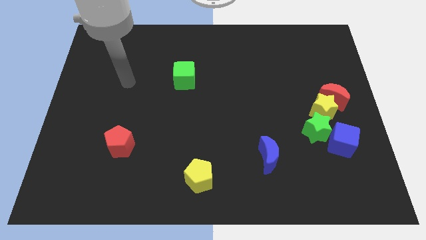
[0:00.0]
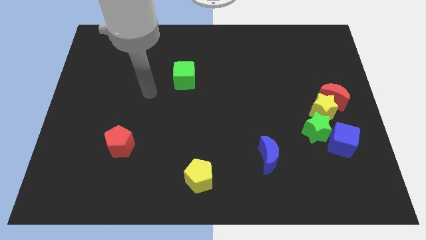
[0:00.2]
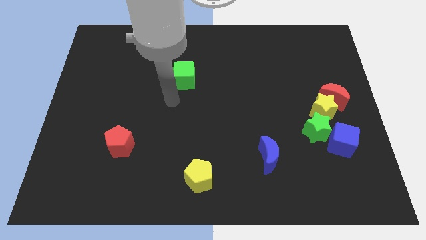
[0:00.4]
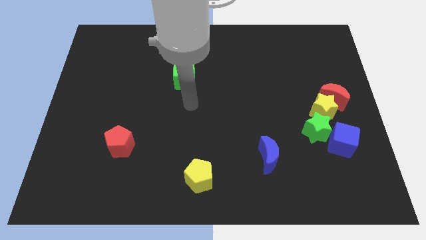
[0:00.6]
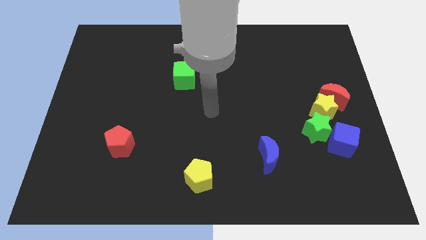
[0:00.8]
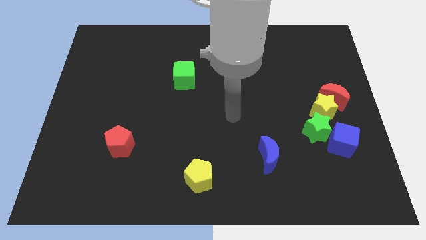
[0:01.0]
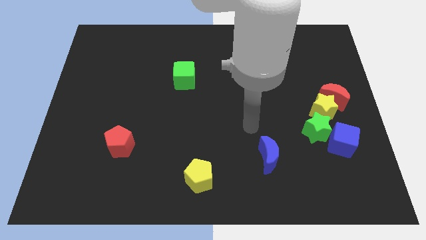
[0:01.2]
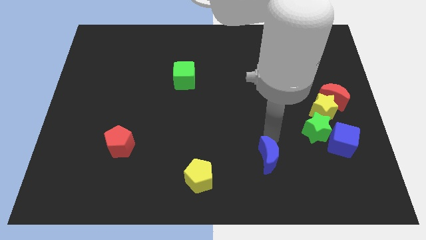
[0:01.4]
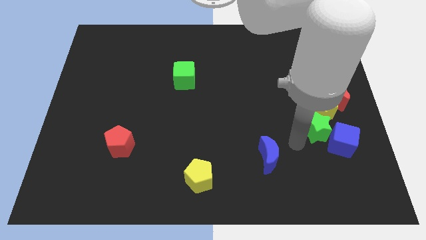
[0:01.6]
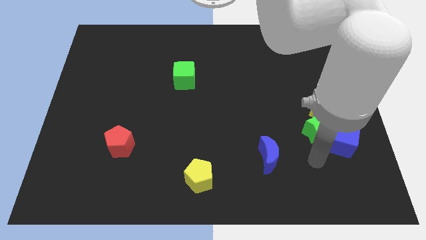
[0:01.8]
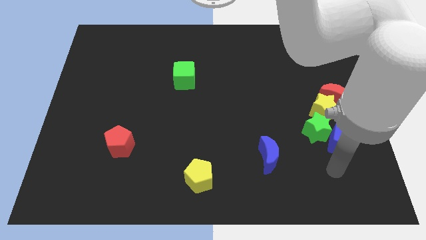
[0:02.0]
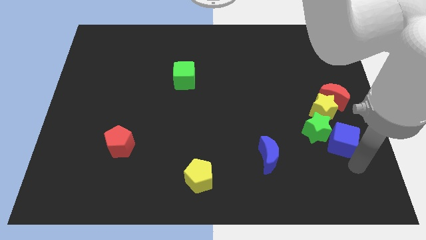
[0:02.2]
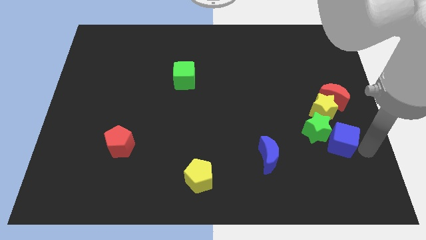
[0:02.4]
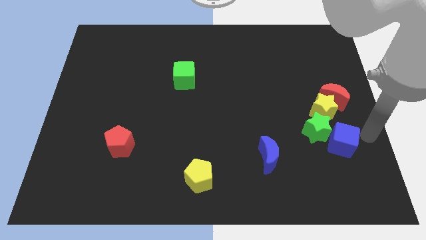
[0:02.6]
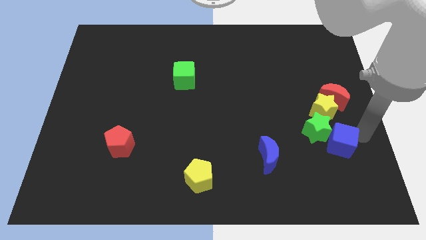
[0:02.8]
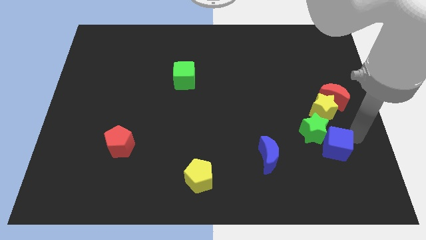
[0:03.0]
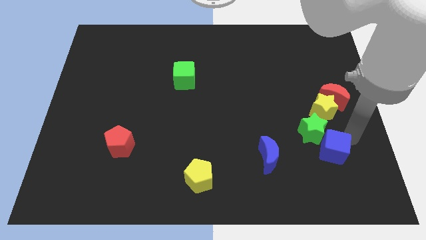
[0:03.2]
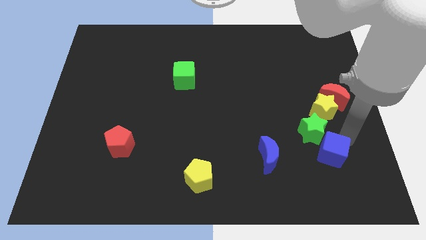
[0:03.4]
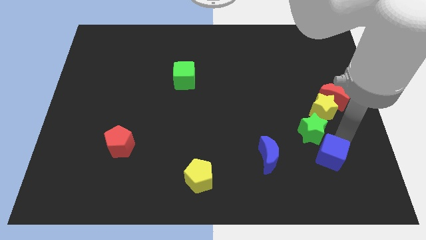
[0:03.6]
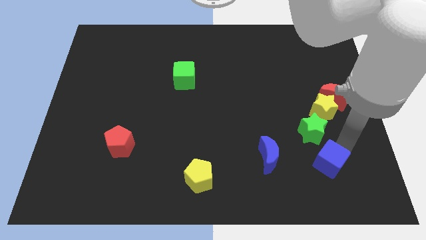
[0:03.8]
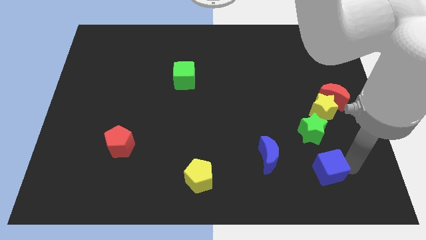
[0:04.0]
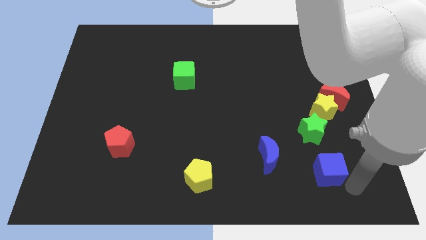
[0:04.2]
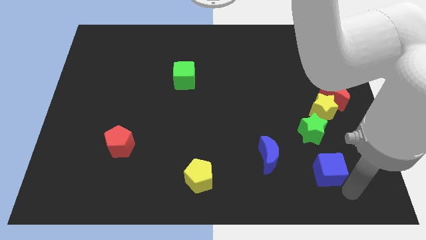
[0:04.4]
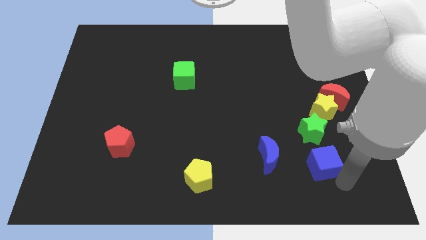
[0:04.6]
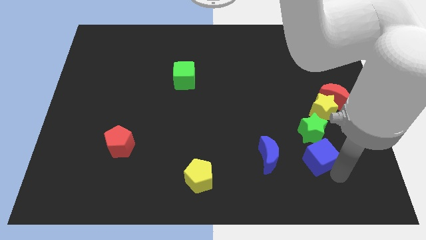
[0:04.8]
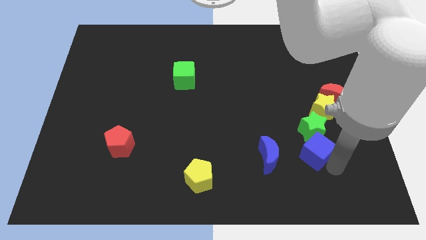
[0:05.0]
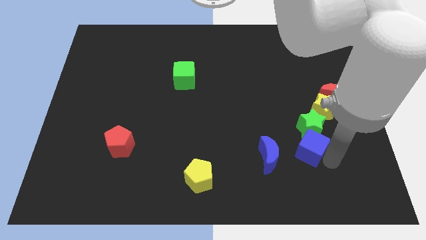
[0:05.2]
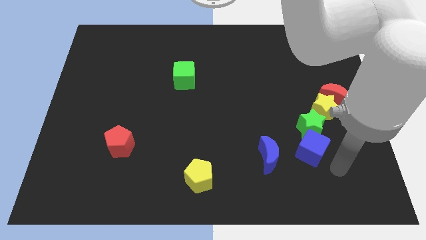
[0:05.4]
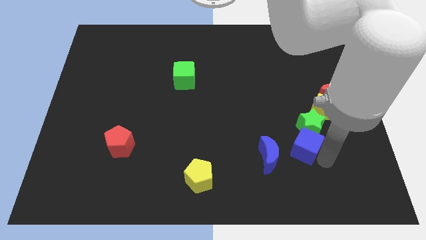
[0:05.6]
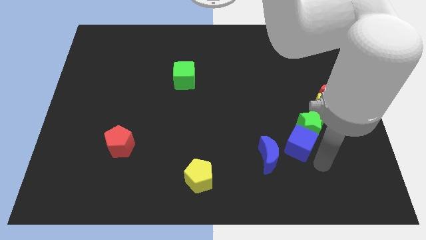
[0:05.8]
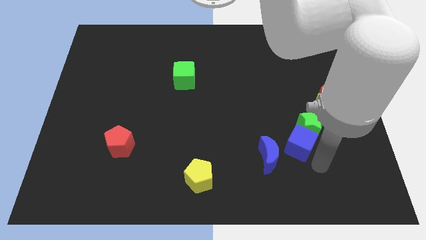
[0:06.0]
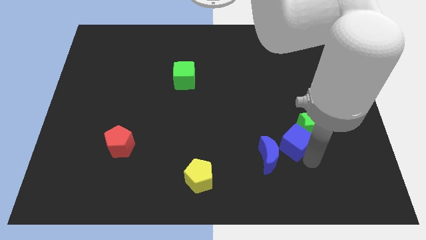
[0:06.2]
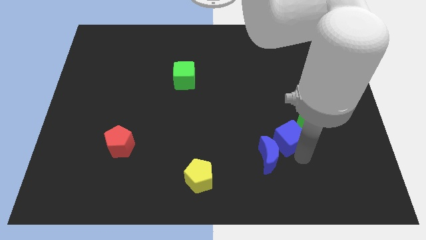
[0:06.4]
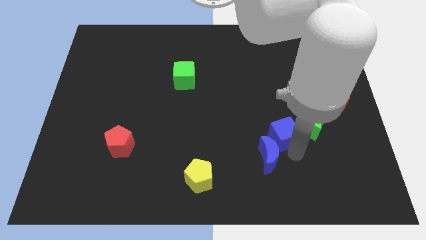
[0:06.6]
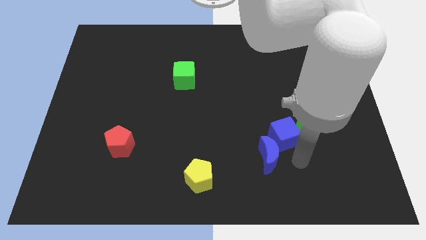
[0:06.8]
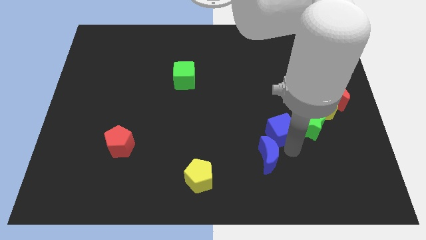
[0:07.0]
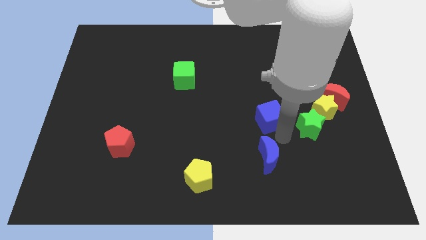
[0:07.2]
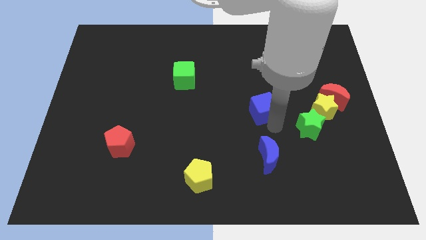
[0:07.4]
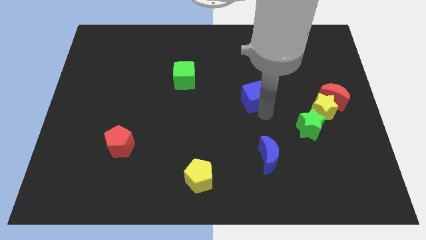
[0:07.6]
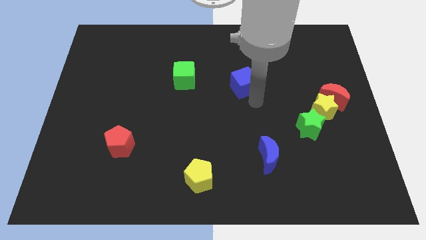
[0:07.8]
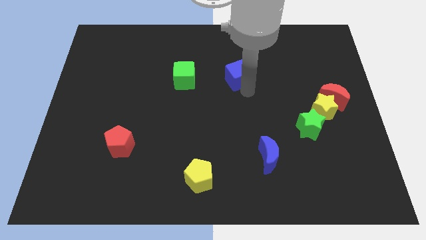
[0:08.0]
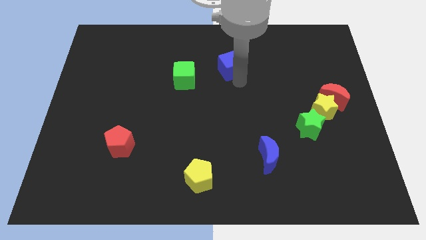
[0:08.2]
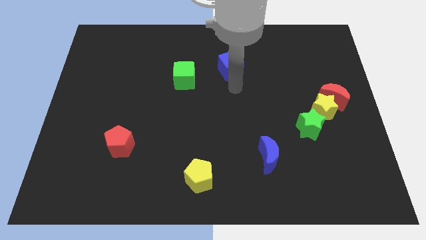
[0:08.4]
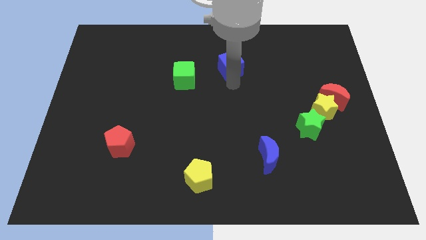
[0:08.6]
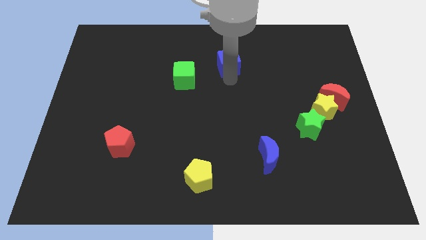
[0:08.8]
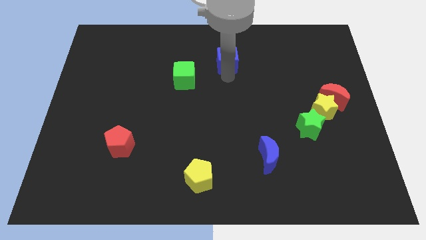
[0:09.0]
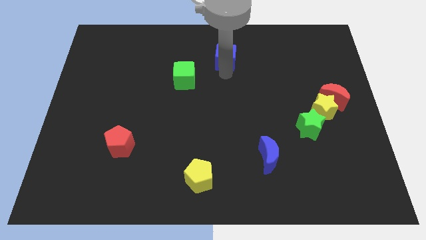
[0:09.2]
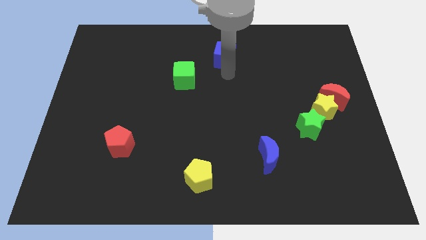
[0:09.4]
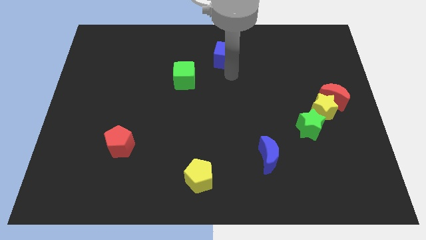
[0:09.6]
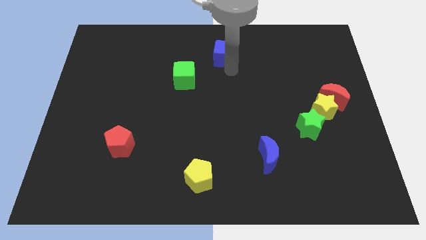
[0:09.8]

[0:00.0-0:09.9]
move the blue cube to the towards your base

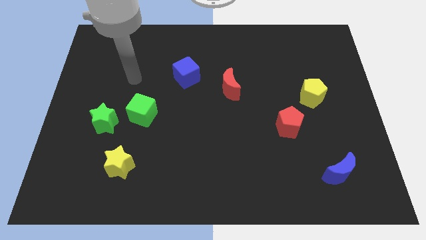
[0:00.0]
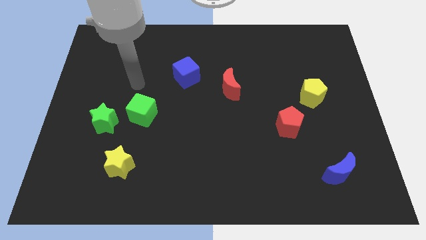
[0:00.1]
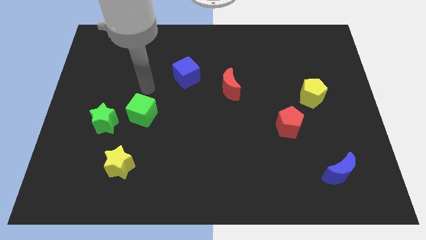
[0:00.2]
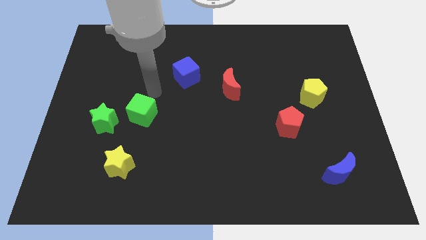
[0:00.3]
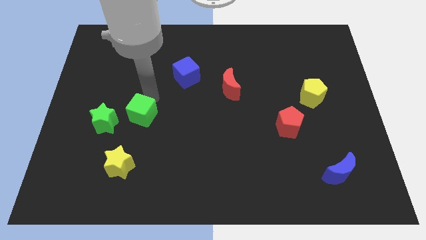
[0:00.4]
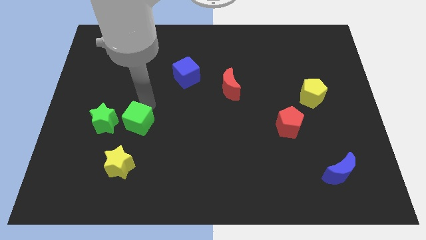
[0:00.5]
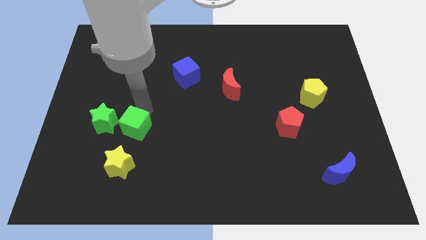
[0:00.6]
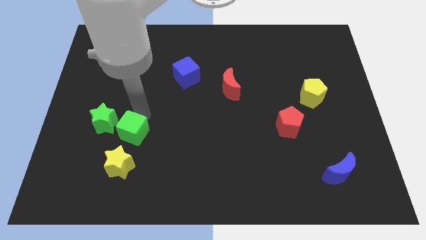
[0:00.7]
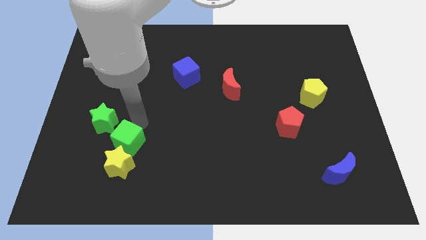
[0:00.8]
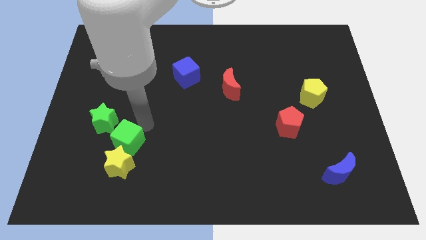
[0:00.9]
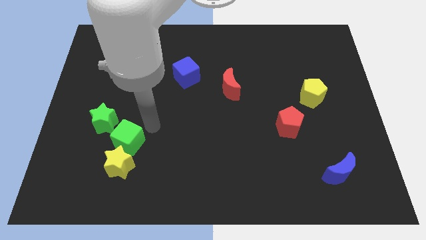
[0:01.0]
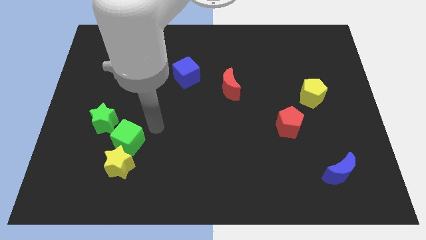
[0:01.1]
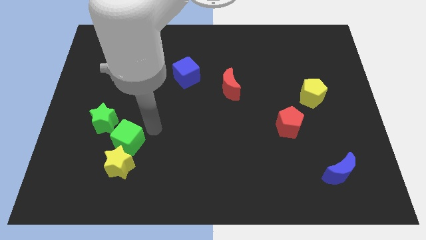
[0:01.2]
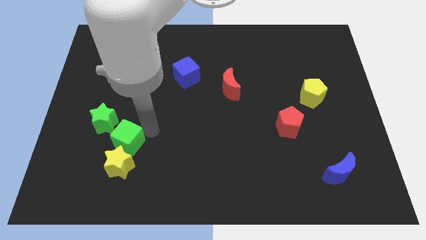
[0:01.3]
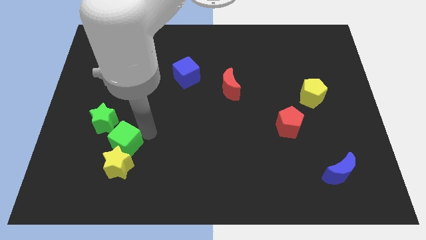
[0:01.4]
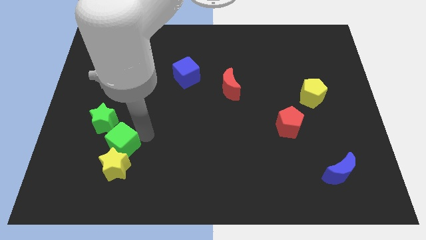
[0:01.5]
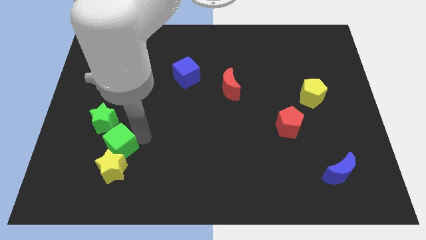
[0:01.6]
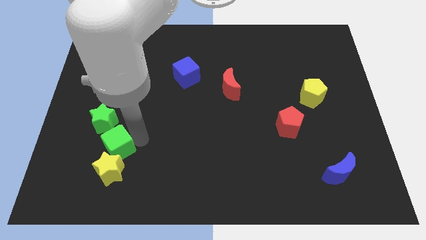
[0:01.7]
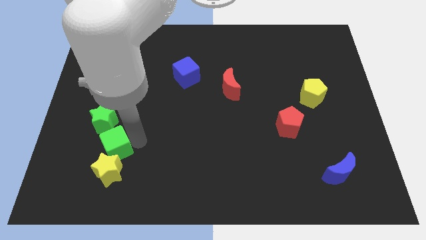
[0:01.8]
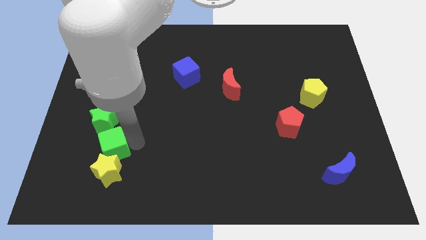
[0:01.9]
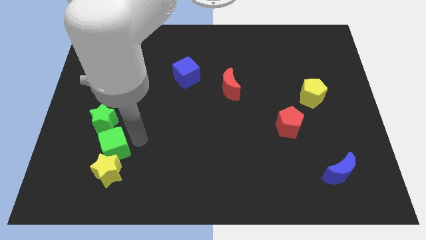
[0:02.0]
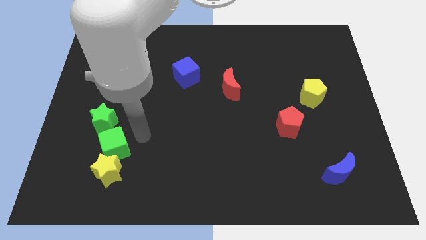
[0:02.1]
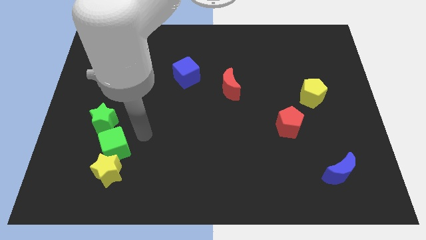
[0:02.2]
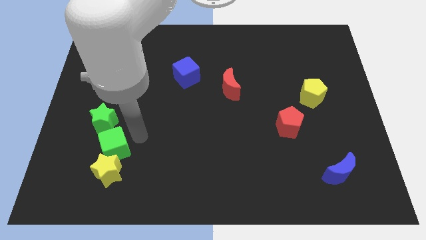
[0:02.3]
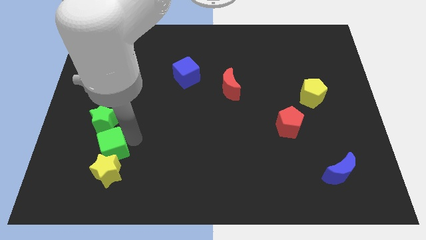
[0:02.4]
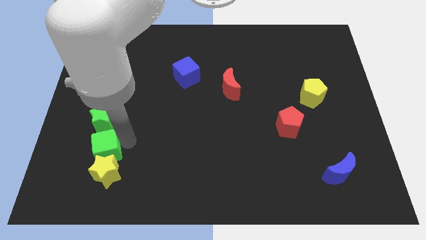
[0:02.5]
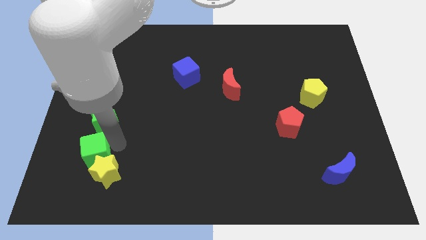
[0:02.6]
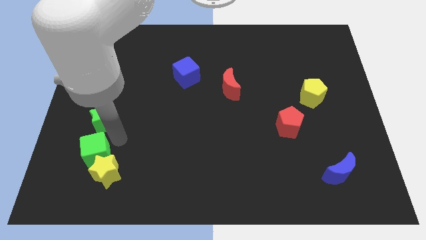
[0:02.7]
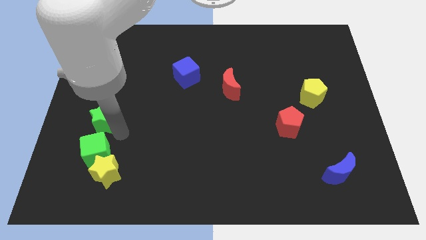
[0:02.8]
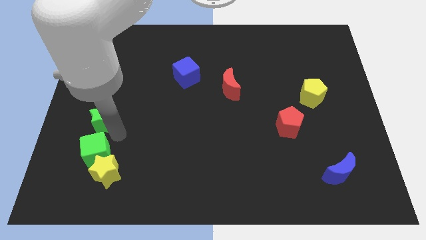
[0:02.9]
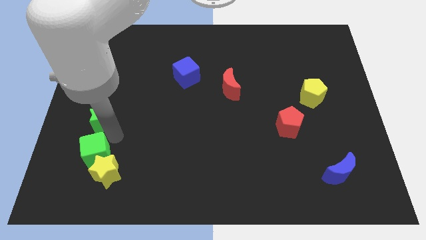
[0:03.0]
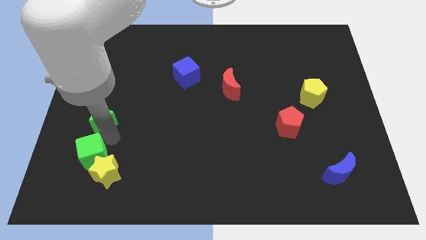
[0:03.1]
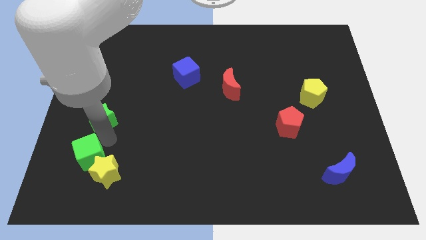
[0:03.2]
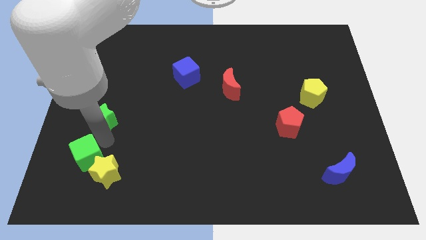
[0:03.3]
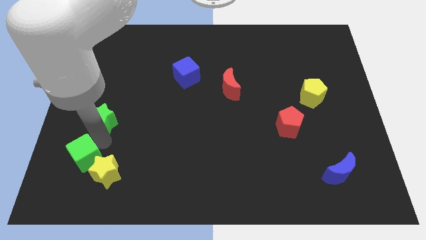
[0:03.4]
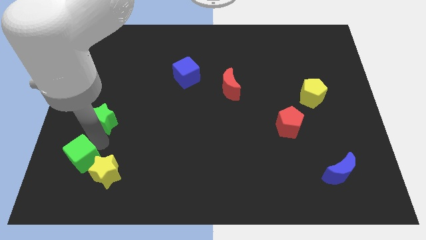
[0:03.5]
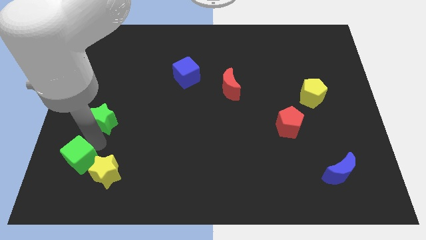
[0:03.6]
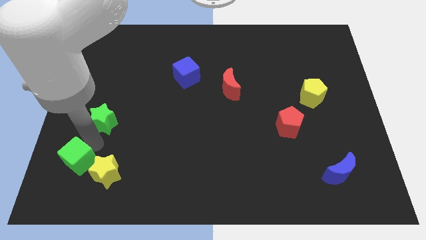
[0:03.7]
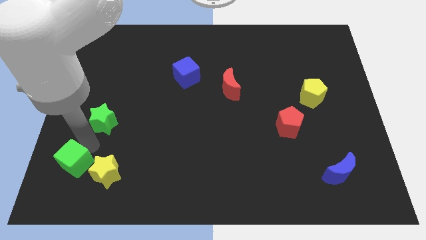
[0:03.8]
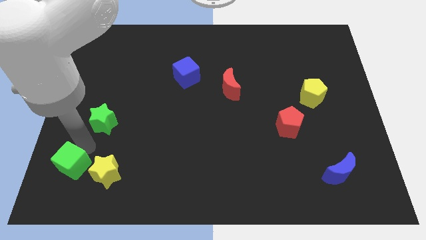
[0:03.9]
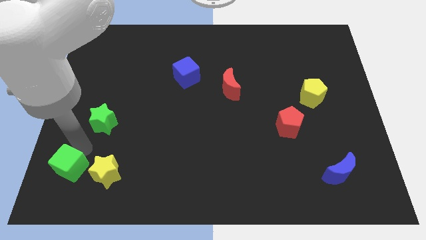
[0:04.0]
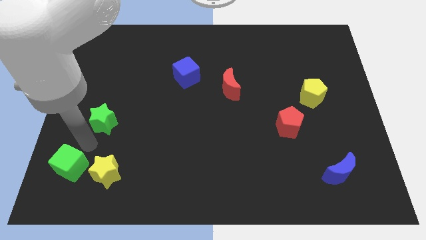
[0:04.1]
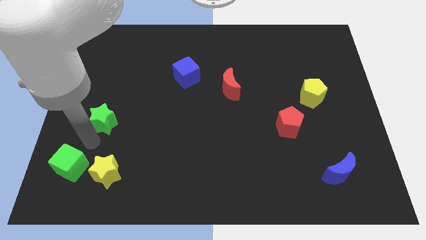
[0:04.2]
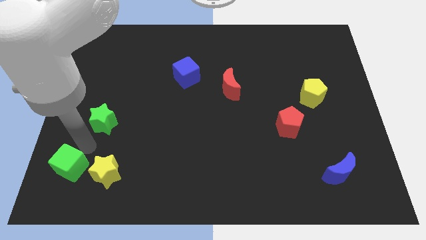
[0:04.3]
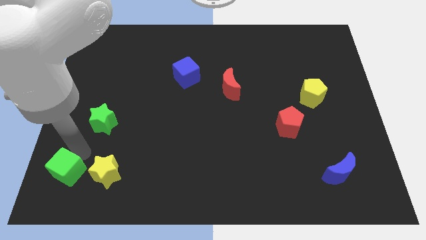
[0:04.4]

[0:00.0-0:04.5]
slide the green cube to the bottom left of the board
